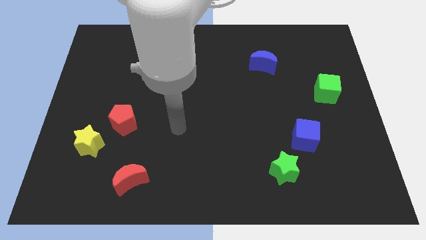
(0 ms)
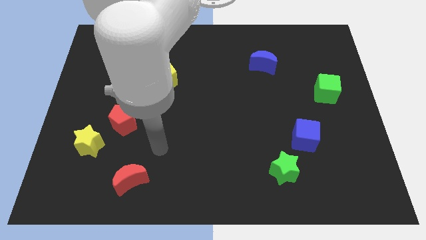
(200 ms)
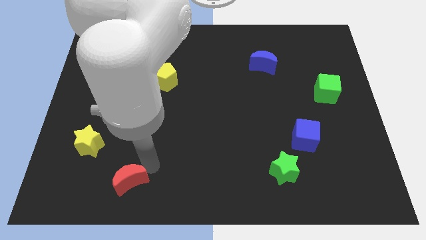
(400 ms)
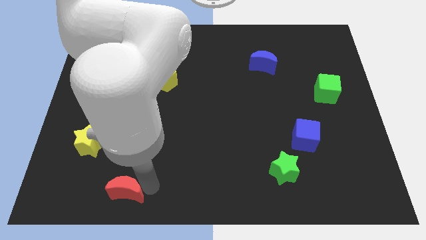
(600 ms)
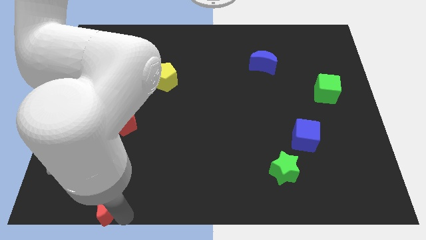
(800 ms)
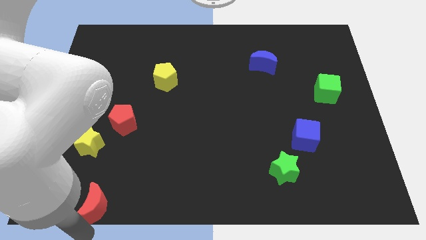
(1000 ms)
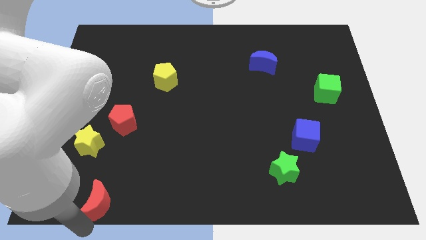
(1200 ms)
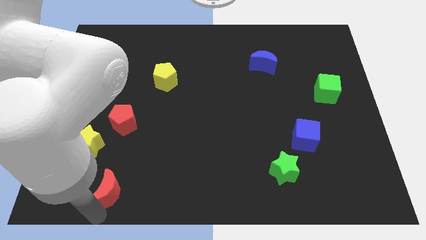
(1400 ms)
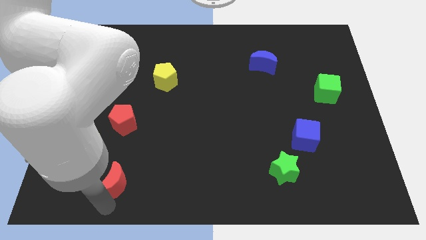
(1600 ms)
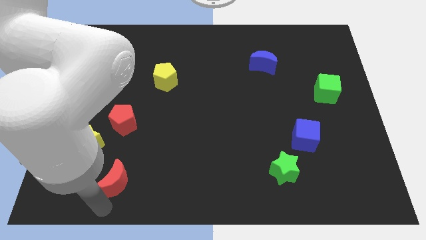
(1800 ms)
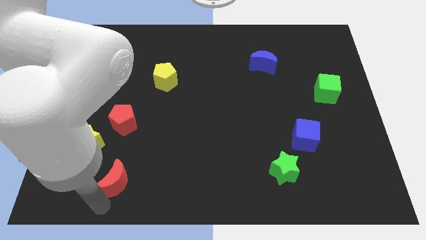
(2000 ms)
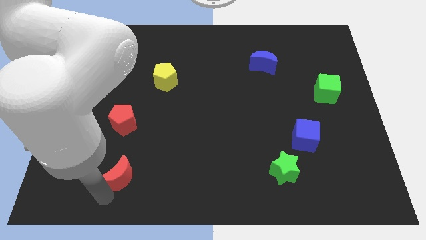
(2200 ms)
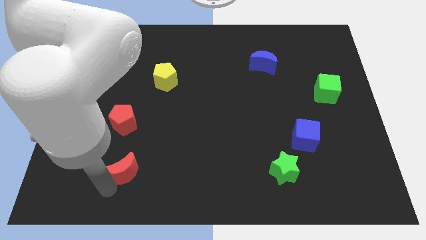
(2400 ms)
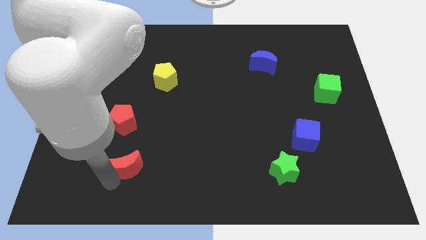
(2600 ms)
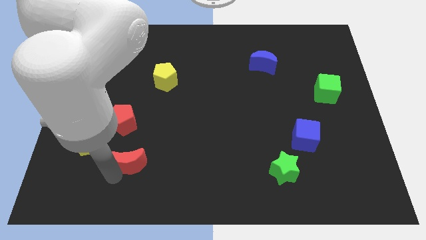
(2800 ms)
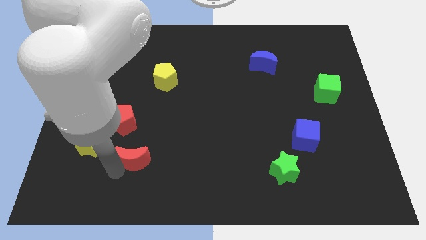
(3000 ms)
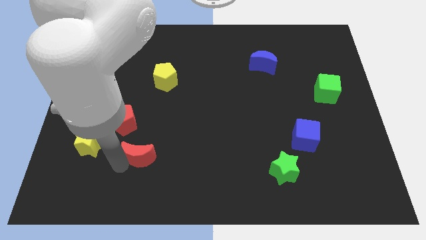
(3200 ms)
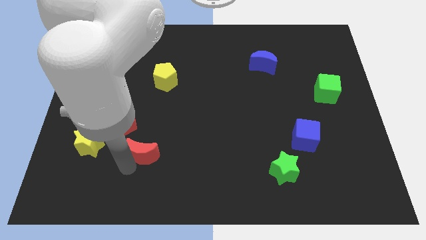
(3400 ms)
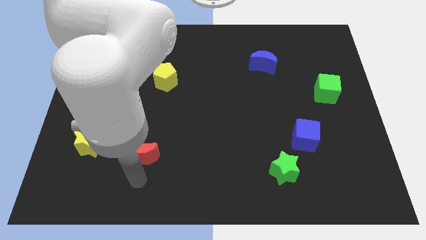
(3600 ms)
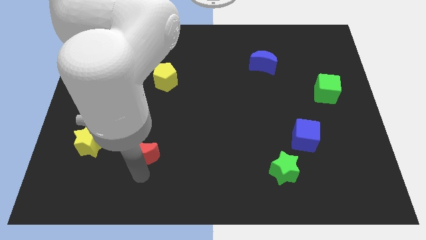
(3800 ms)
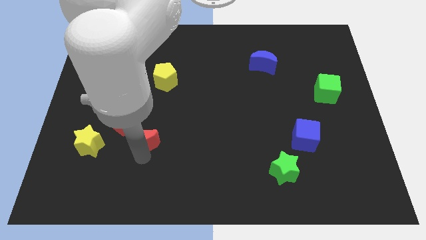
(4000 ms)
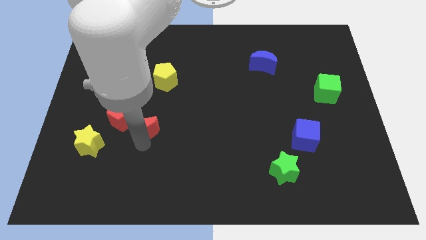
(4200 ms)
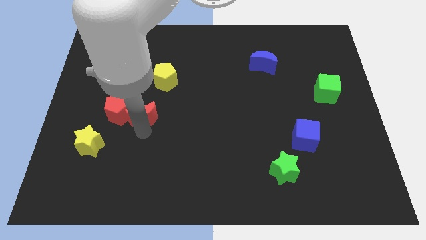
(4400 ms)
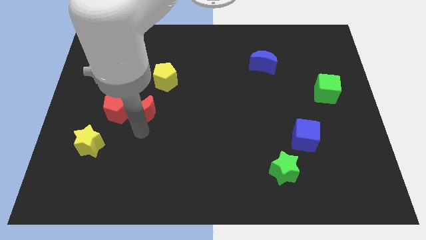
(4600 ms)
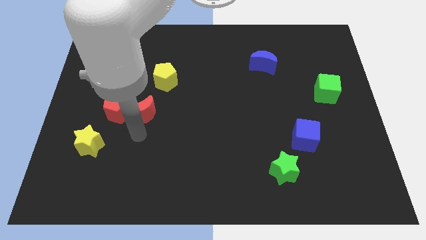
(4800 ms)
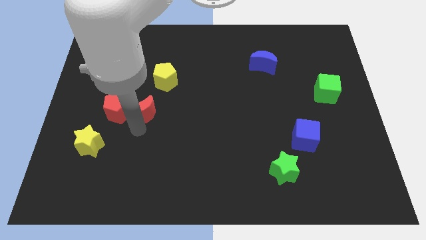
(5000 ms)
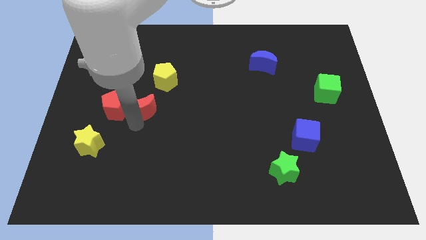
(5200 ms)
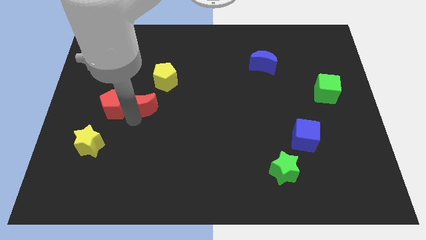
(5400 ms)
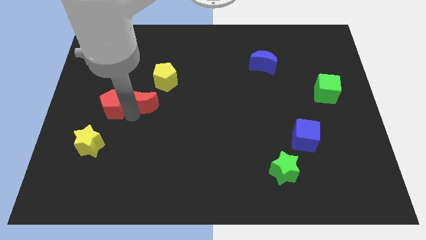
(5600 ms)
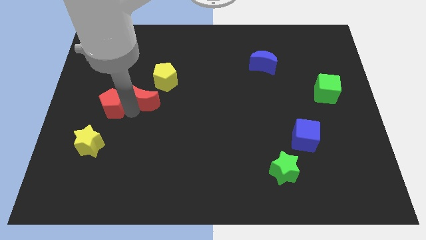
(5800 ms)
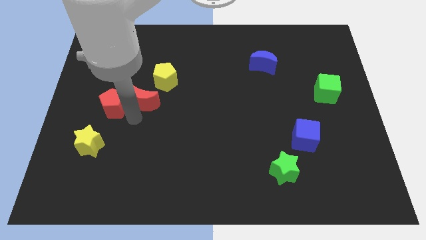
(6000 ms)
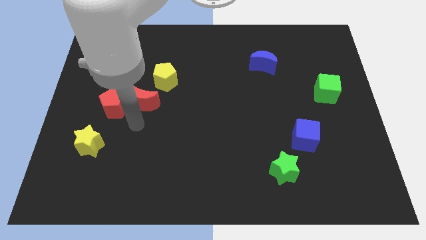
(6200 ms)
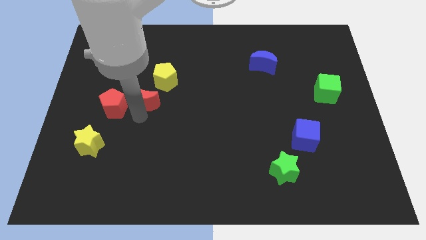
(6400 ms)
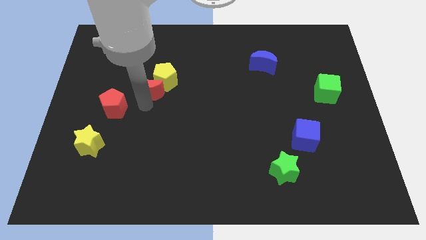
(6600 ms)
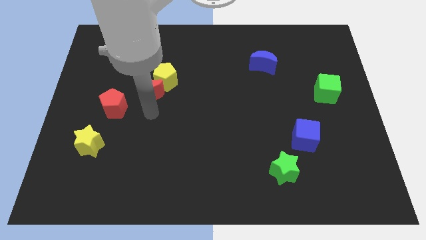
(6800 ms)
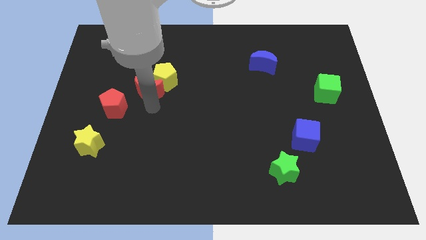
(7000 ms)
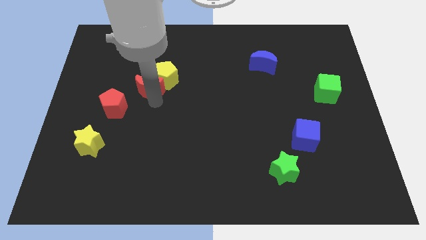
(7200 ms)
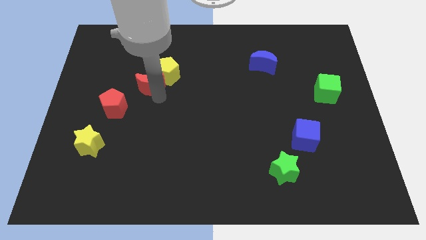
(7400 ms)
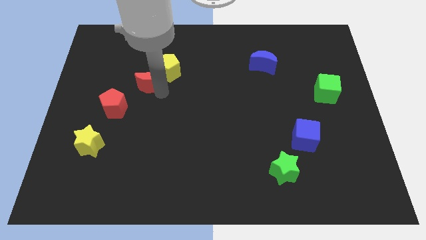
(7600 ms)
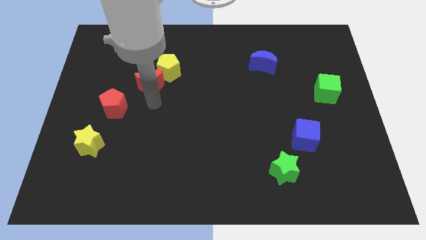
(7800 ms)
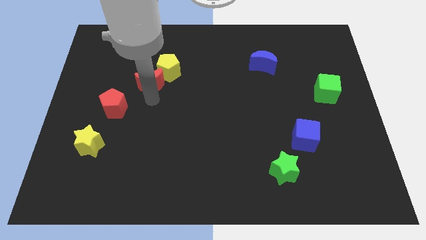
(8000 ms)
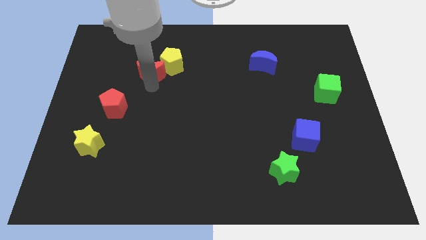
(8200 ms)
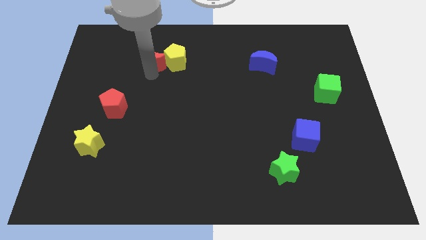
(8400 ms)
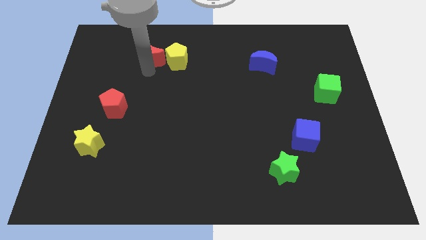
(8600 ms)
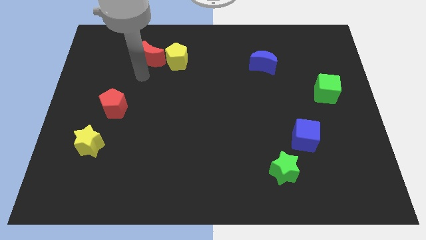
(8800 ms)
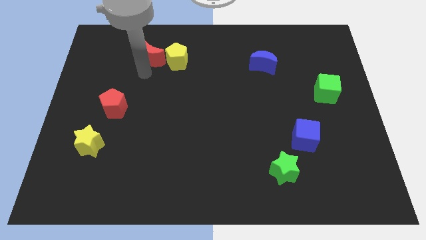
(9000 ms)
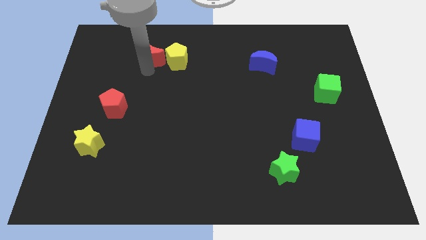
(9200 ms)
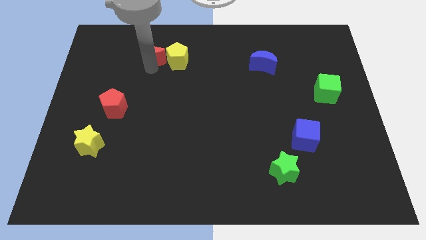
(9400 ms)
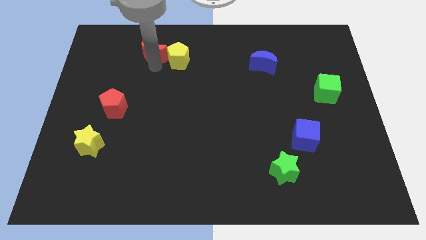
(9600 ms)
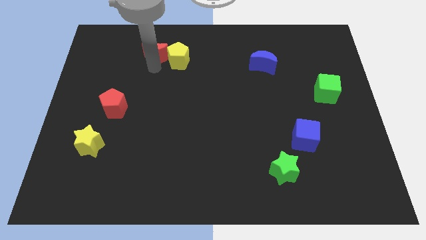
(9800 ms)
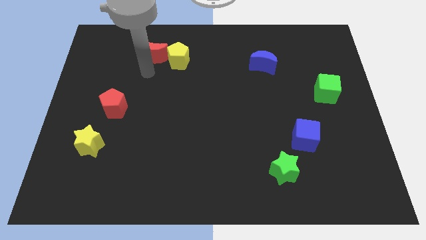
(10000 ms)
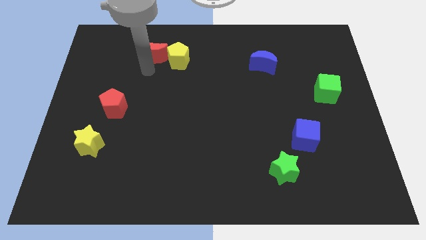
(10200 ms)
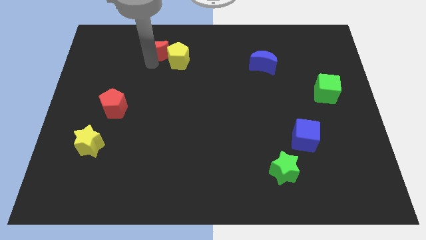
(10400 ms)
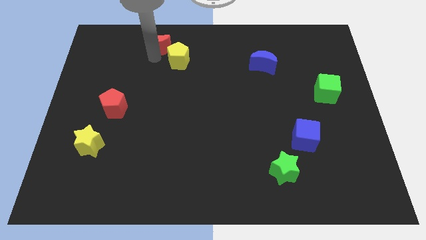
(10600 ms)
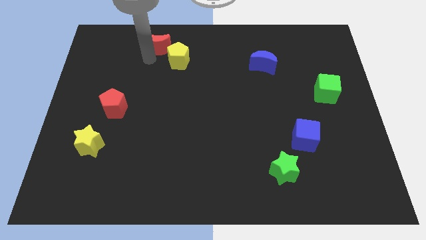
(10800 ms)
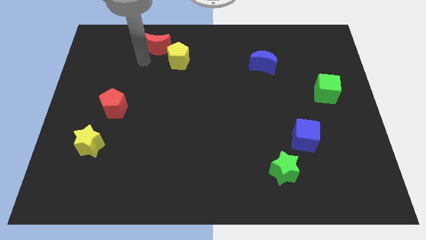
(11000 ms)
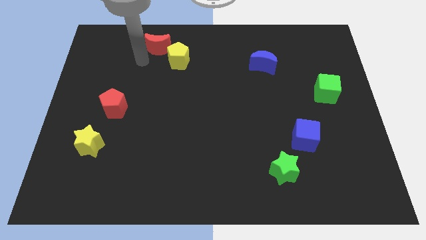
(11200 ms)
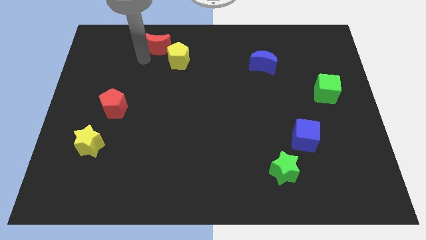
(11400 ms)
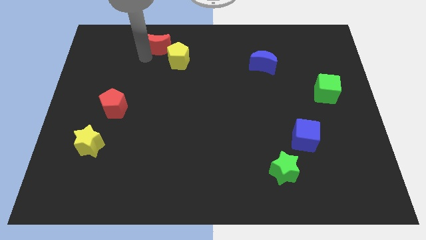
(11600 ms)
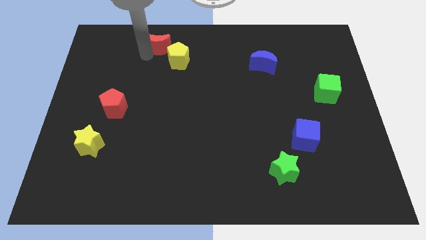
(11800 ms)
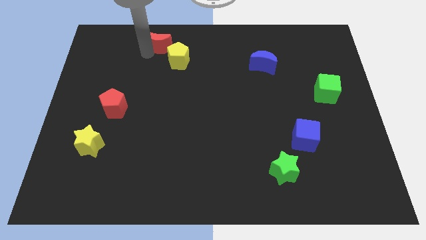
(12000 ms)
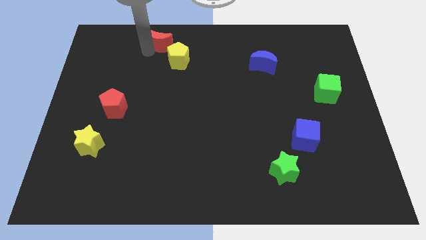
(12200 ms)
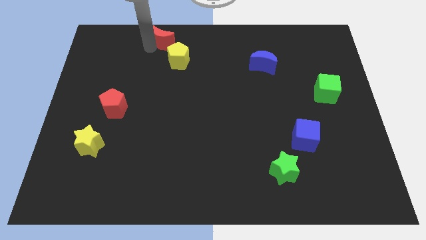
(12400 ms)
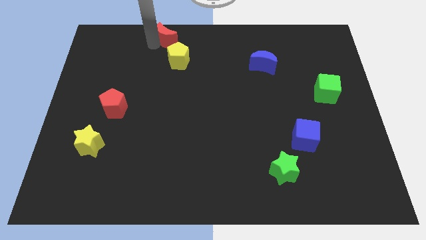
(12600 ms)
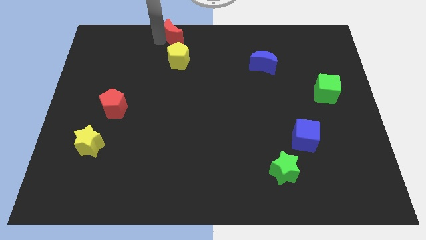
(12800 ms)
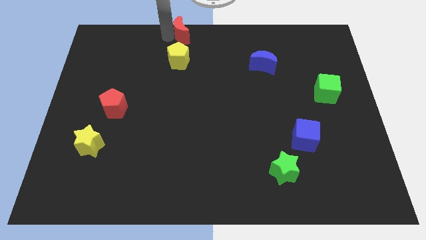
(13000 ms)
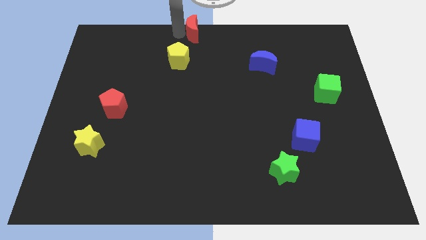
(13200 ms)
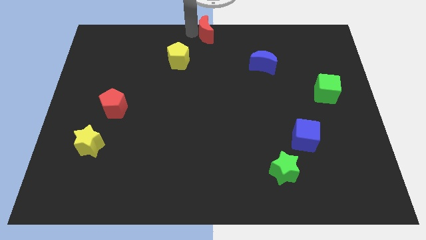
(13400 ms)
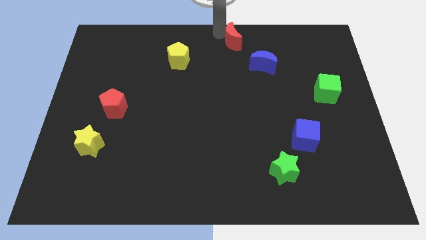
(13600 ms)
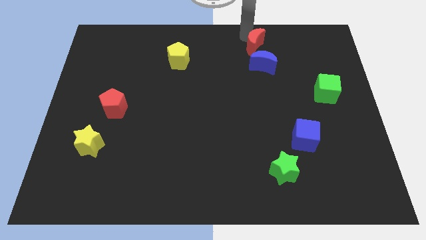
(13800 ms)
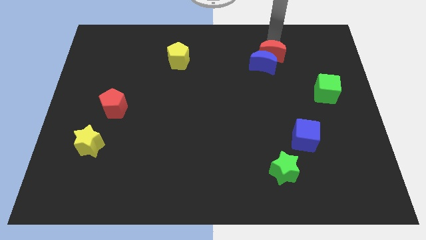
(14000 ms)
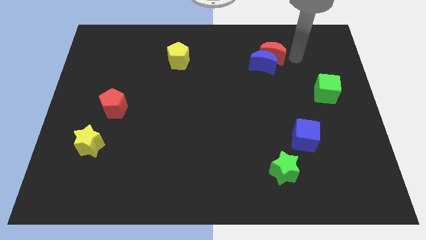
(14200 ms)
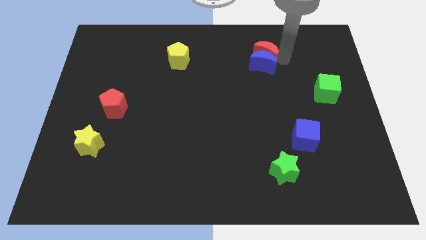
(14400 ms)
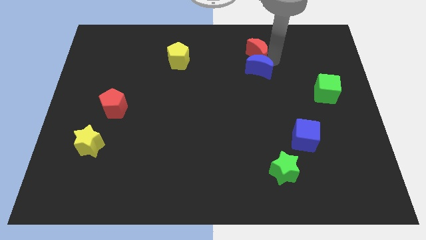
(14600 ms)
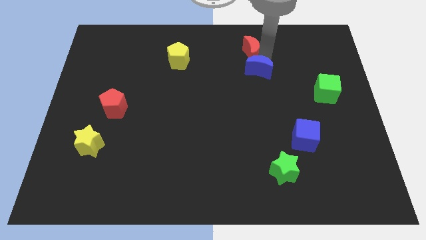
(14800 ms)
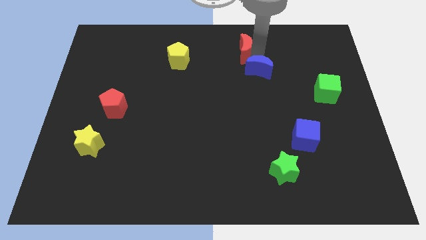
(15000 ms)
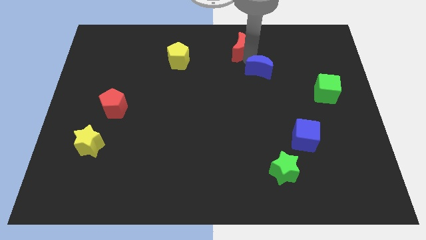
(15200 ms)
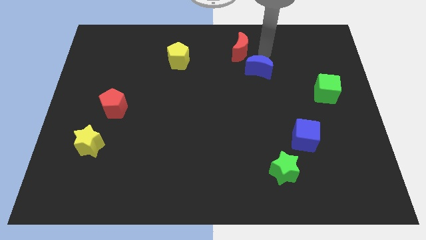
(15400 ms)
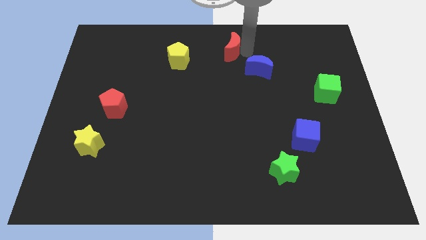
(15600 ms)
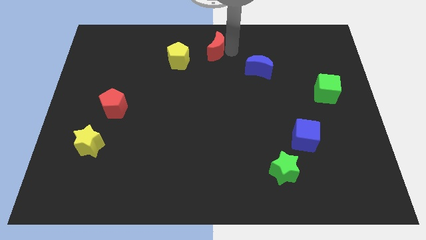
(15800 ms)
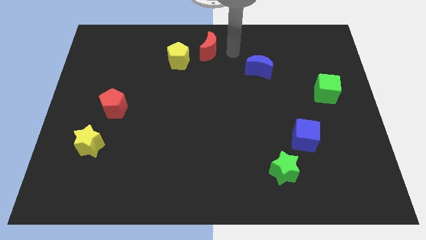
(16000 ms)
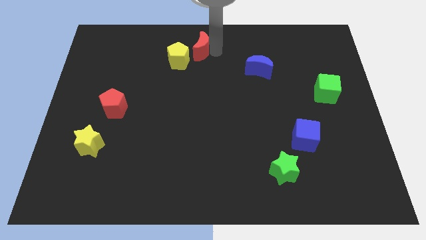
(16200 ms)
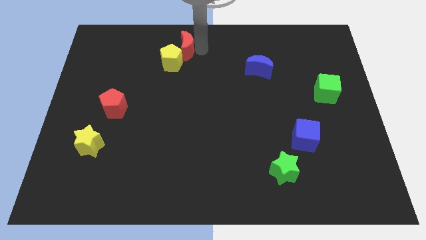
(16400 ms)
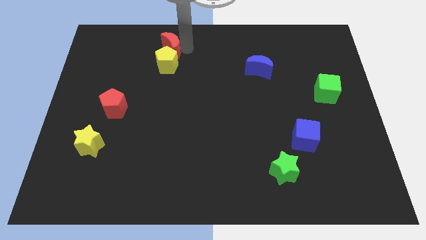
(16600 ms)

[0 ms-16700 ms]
push the red moon diagonally up and to the left of the yellow pentagon
